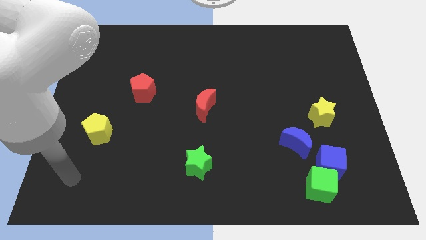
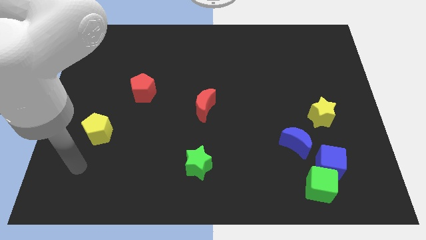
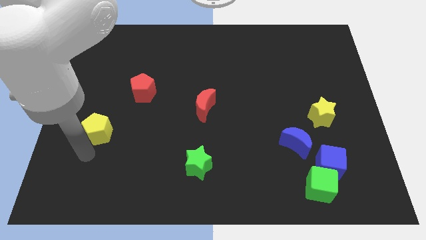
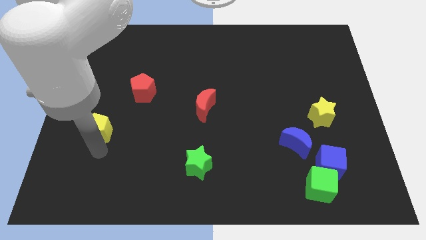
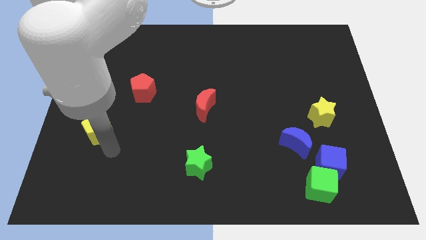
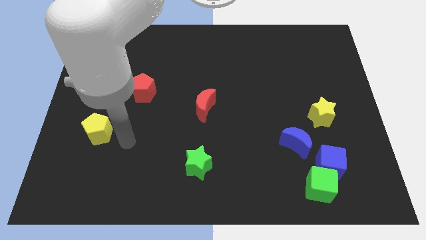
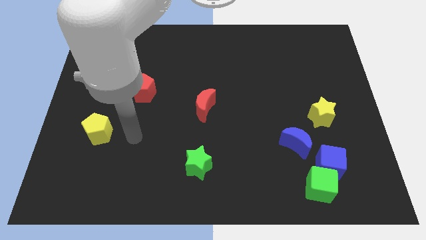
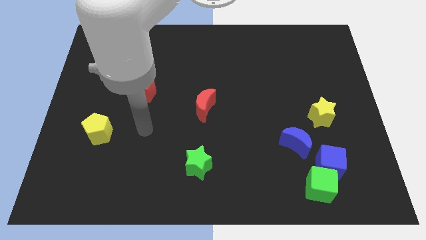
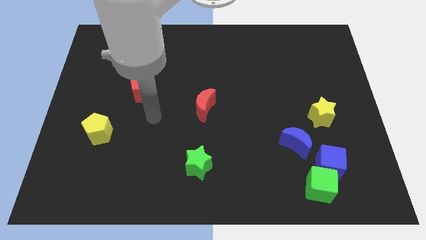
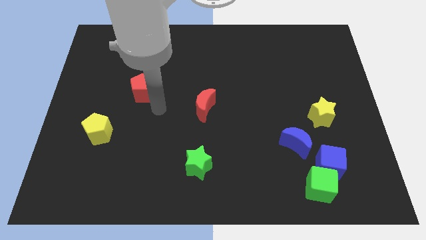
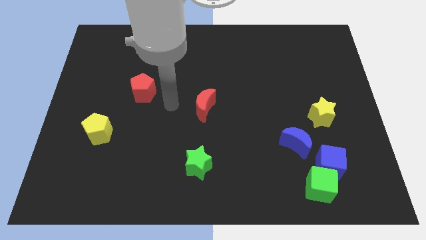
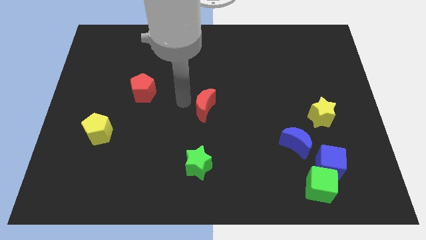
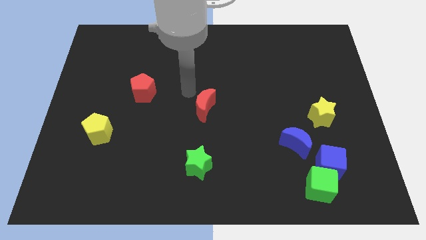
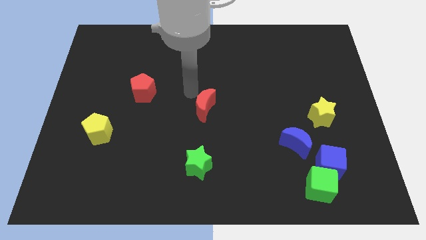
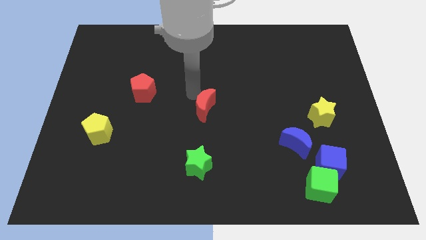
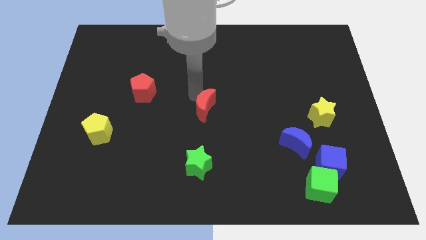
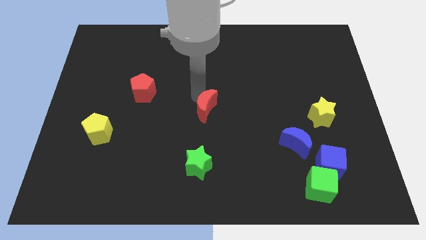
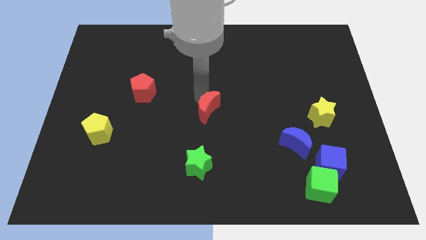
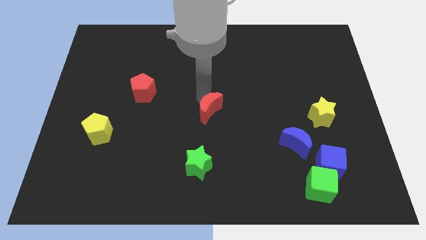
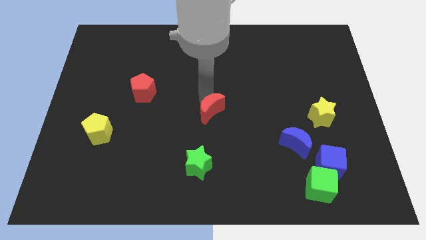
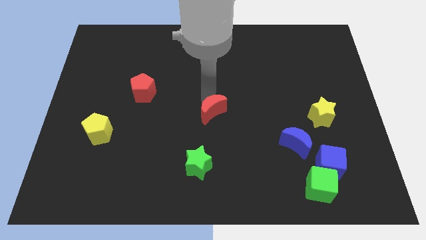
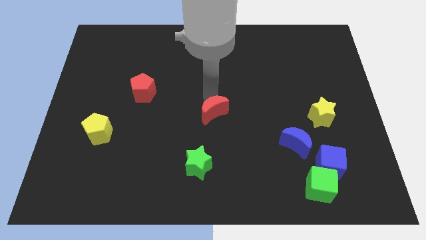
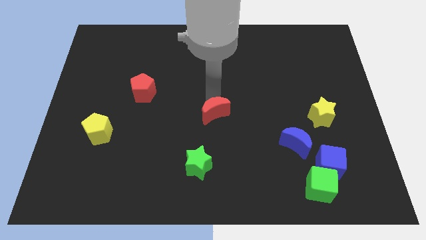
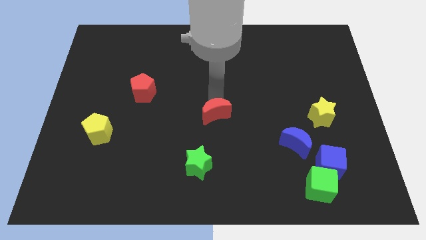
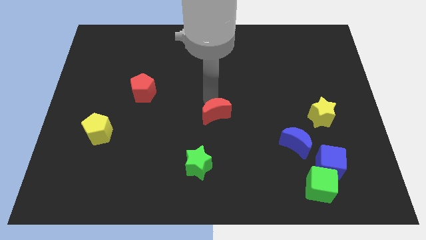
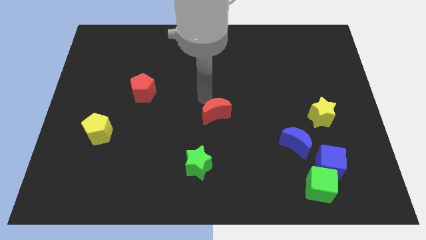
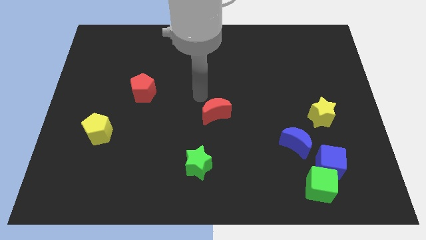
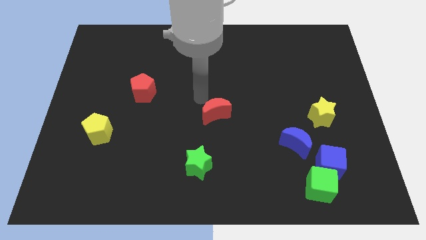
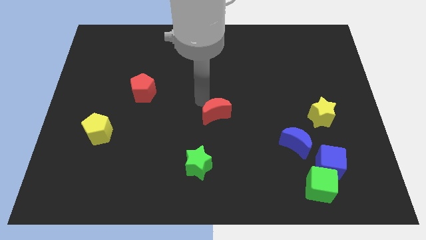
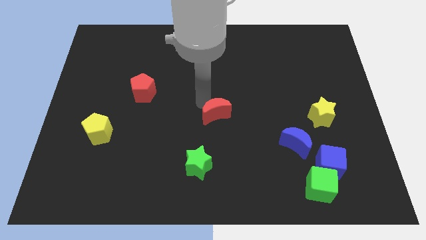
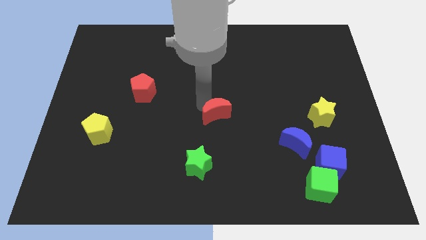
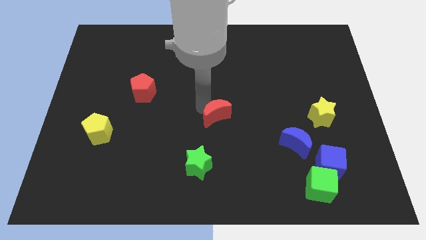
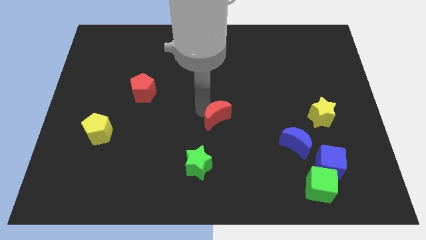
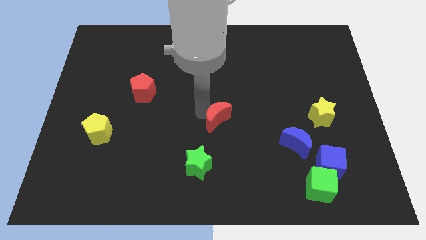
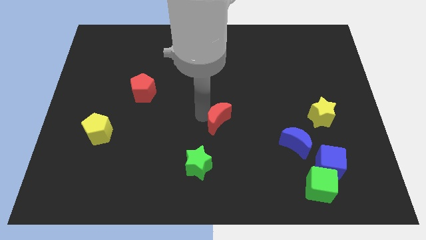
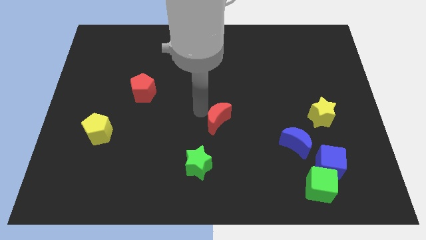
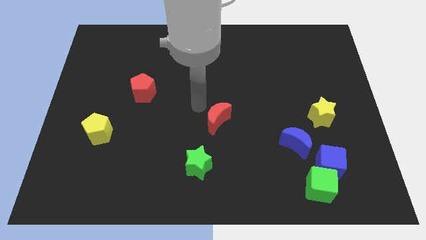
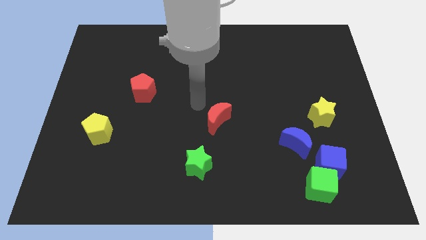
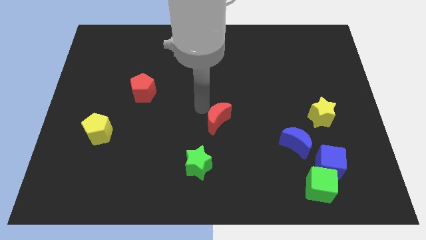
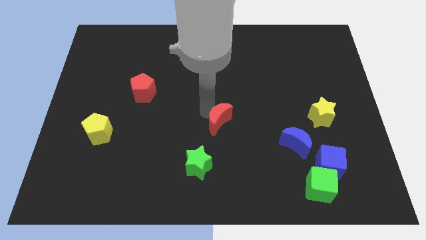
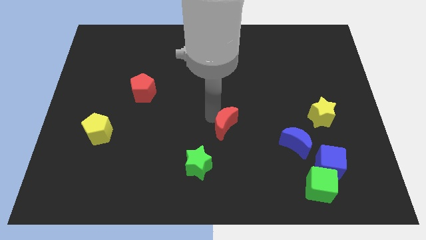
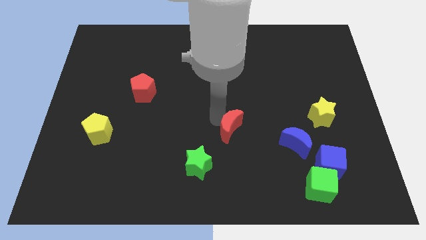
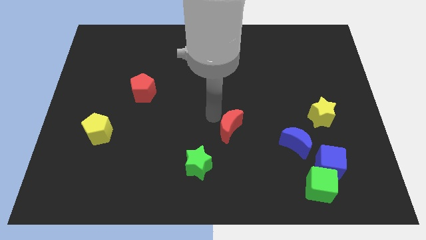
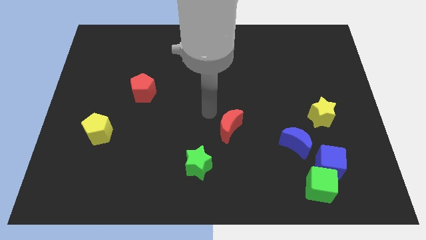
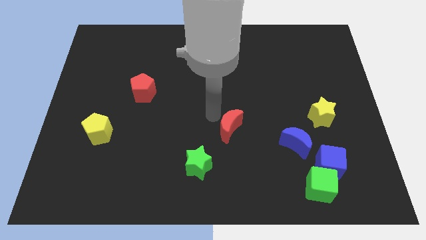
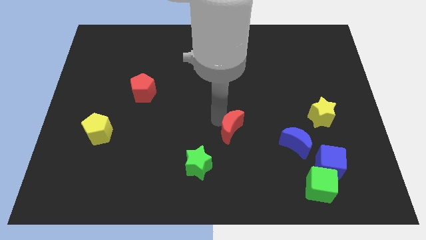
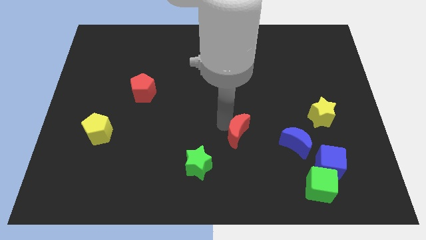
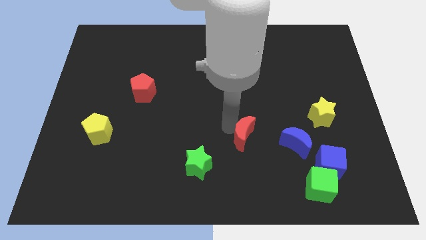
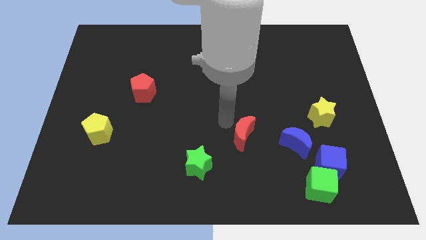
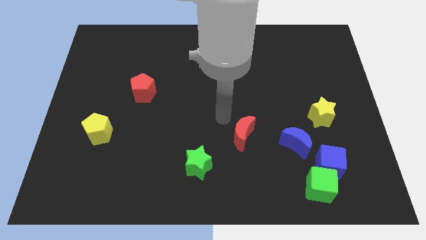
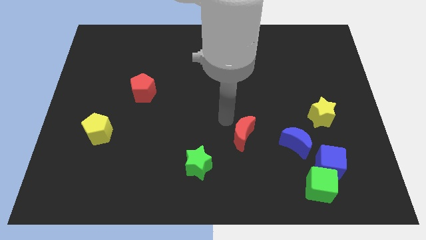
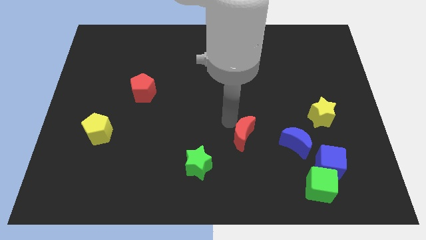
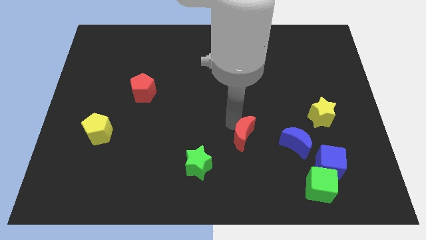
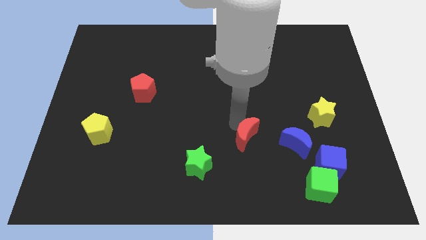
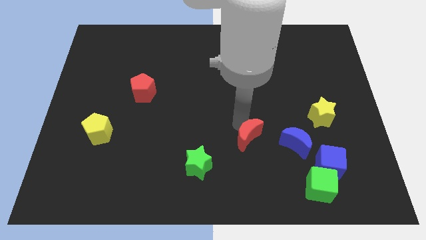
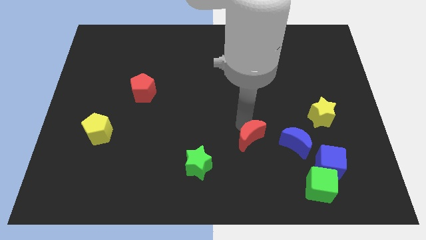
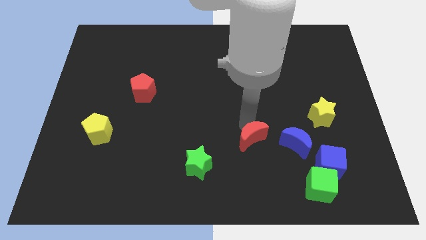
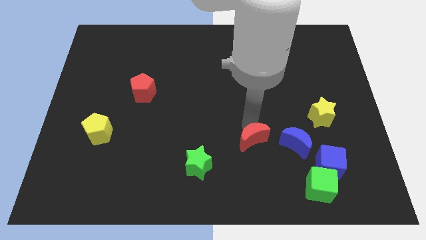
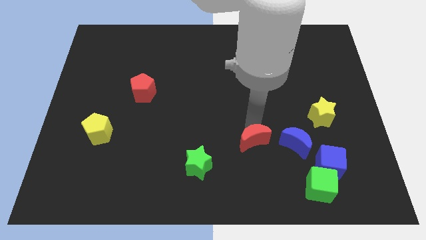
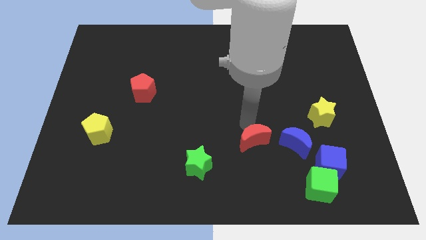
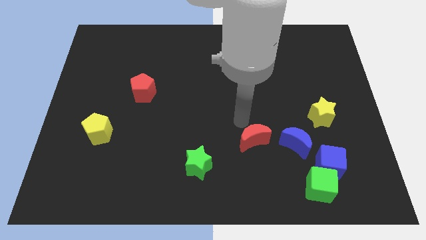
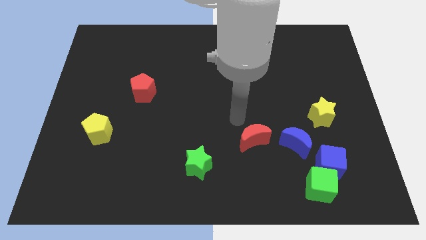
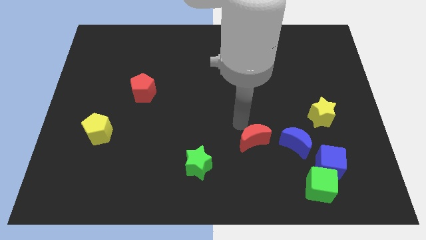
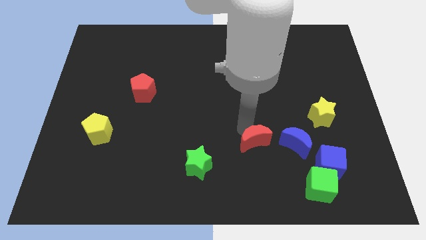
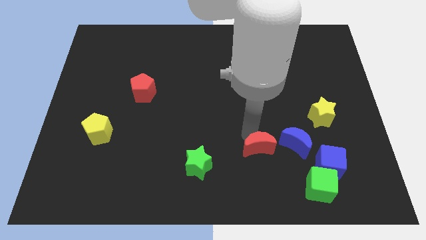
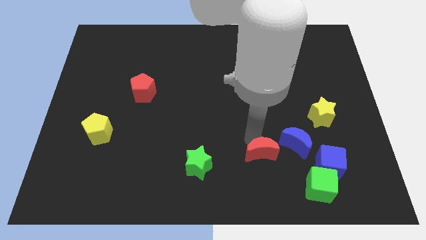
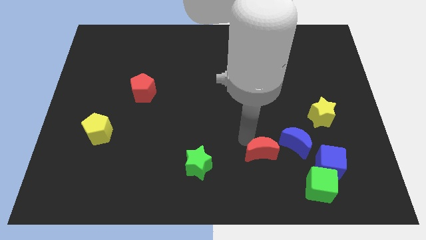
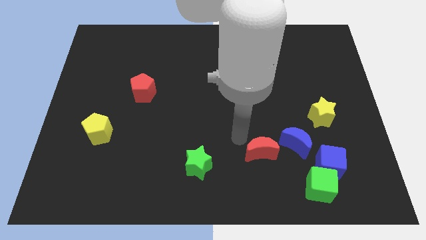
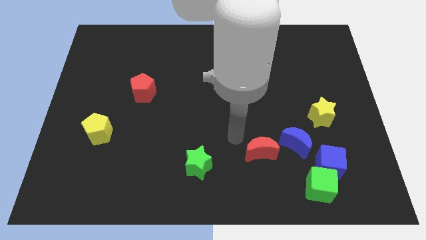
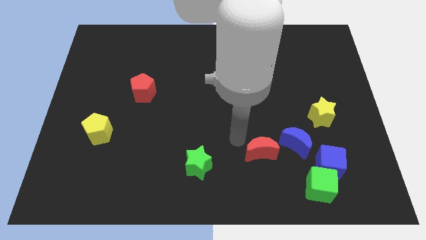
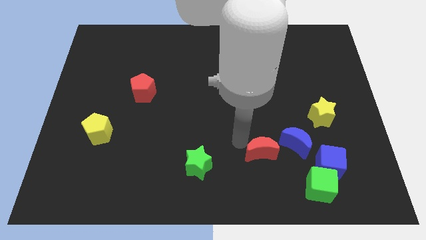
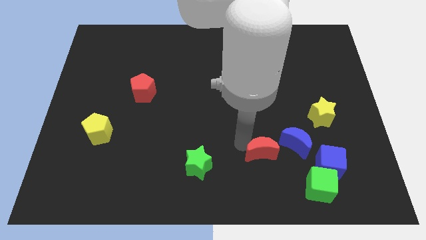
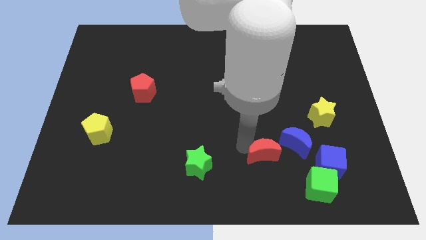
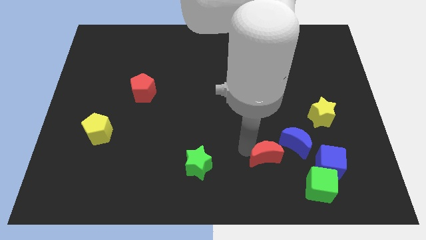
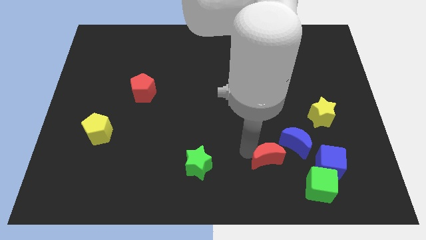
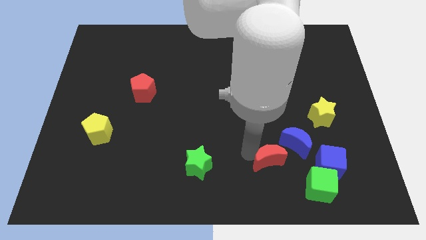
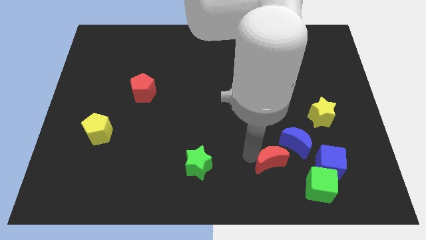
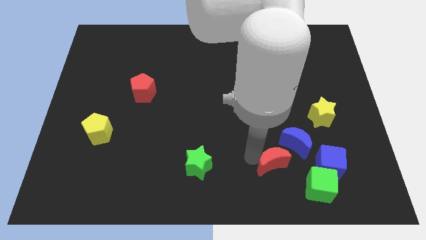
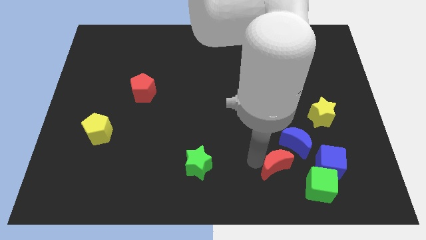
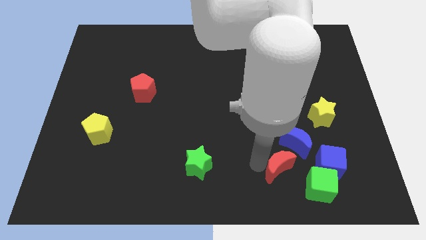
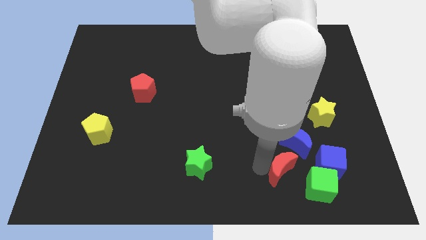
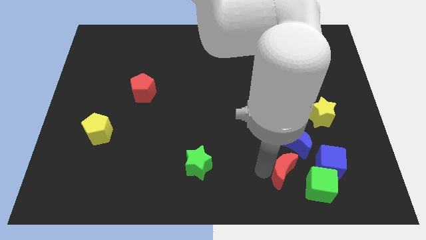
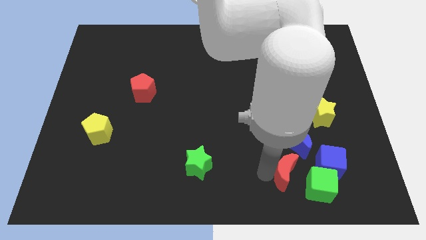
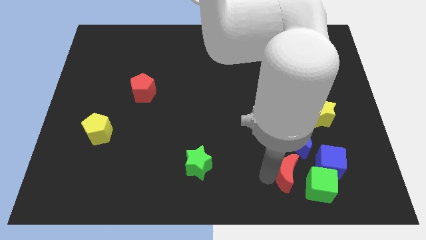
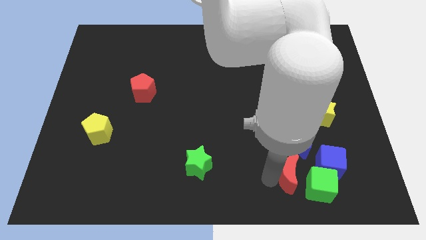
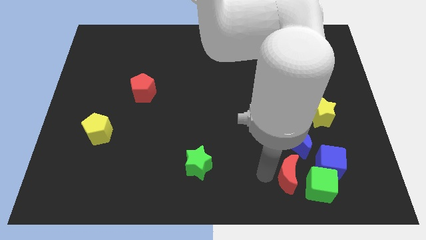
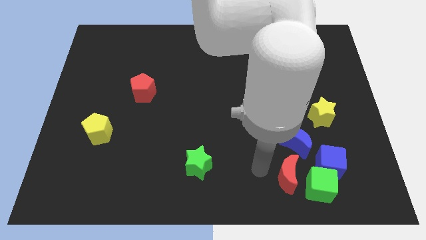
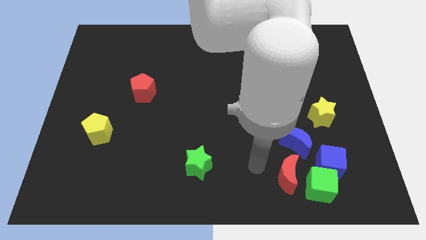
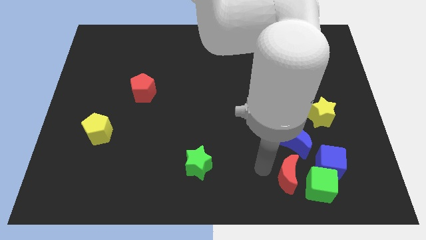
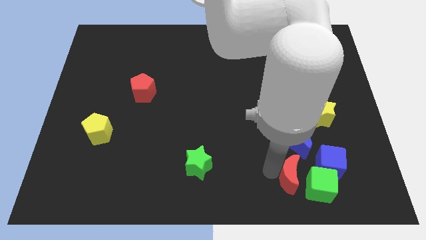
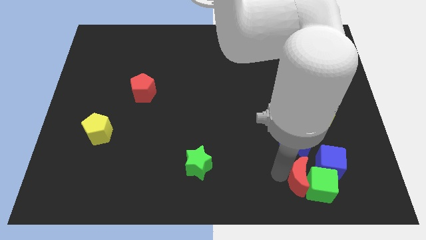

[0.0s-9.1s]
put the red moon towards the green cube
